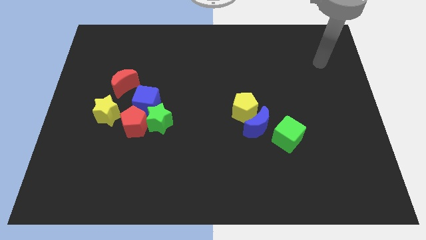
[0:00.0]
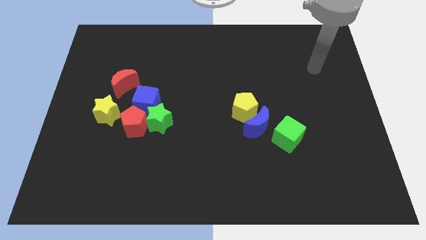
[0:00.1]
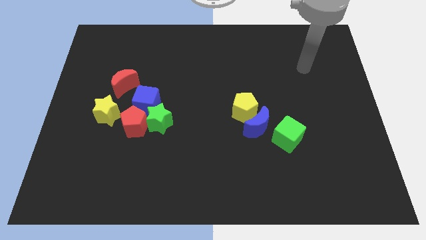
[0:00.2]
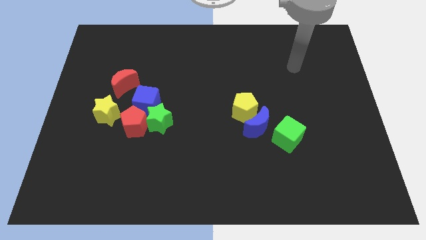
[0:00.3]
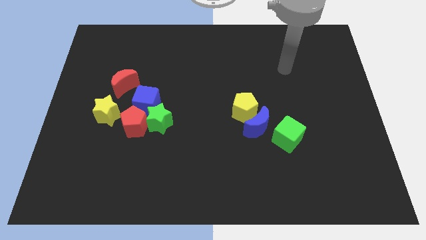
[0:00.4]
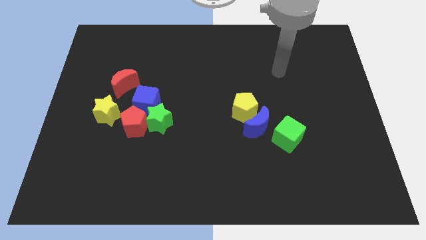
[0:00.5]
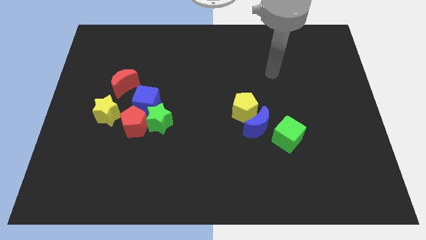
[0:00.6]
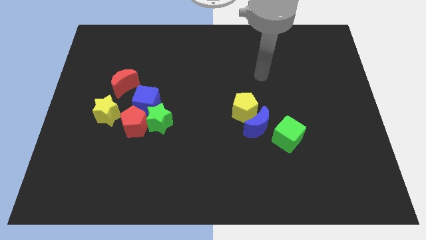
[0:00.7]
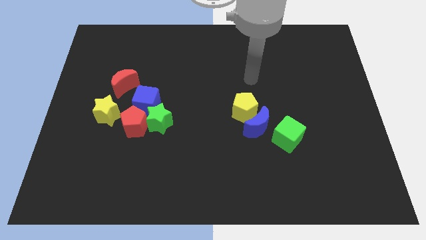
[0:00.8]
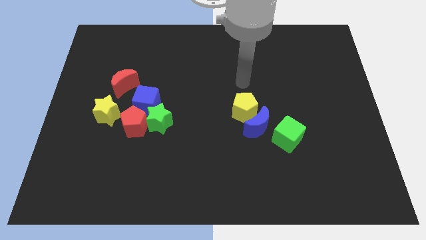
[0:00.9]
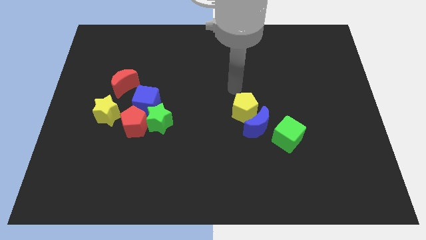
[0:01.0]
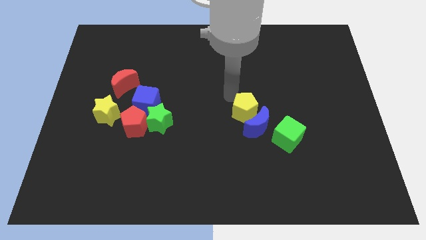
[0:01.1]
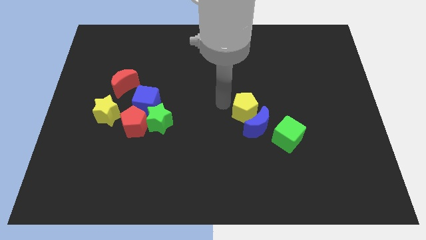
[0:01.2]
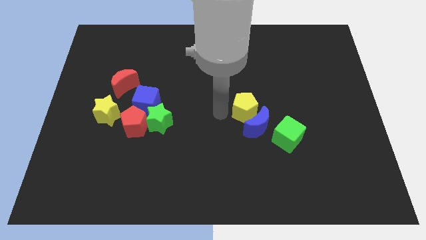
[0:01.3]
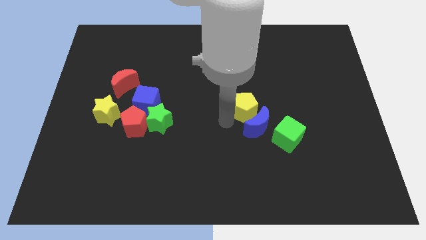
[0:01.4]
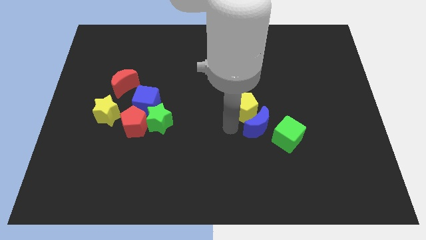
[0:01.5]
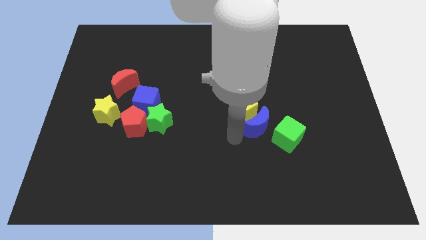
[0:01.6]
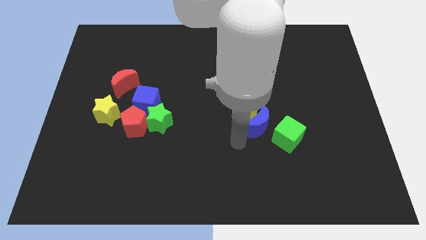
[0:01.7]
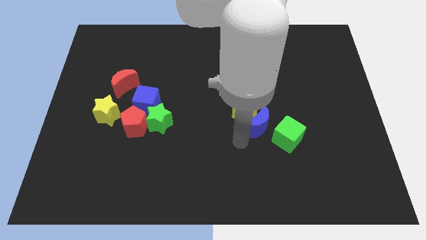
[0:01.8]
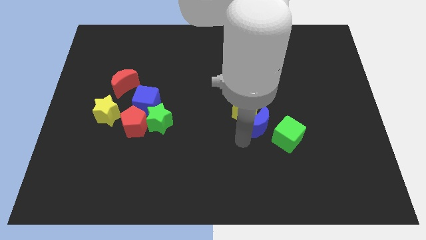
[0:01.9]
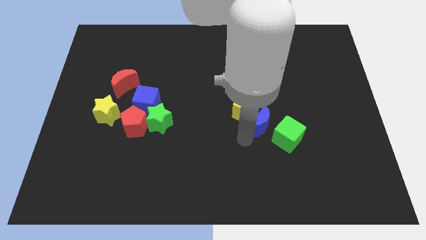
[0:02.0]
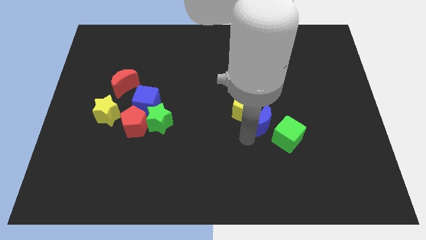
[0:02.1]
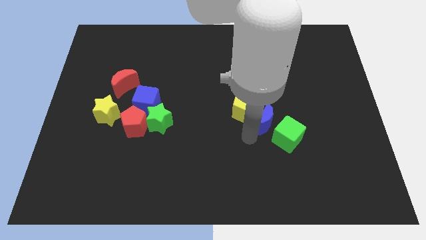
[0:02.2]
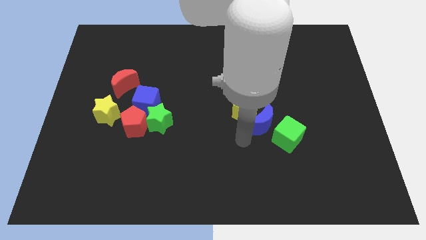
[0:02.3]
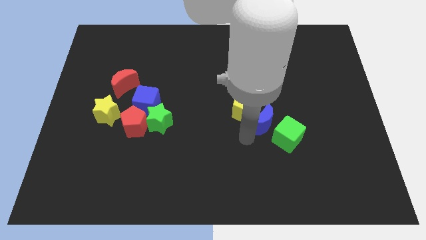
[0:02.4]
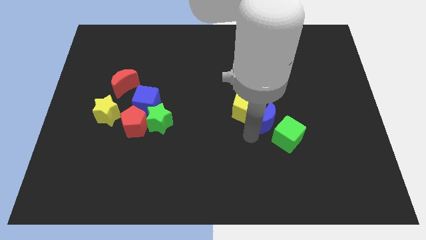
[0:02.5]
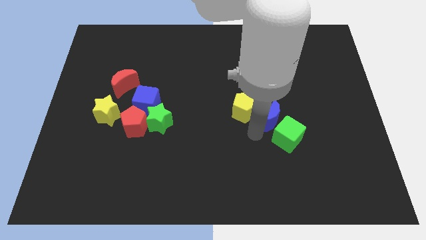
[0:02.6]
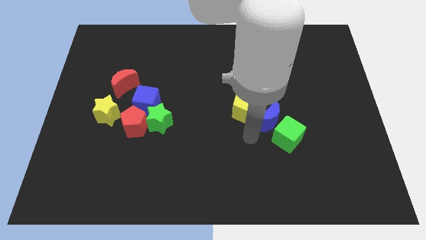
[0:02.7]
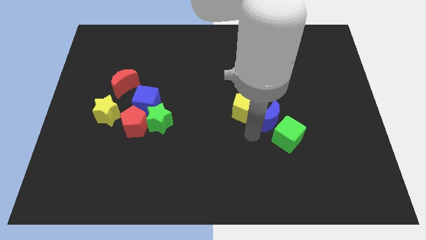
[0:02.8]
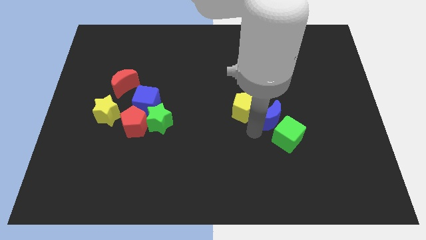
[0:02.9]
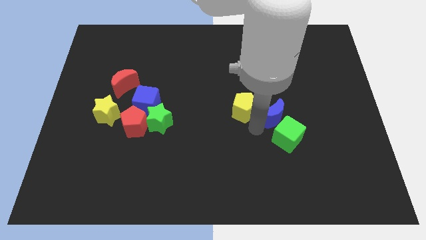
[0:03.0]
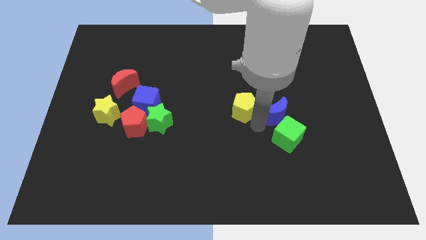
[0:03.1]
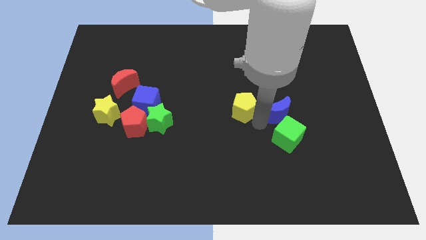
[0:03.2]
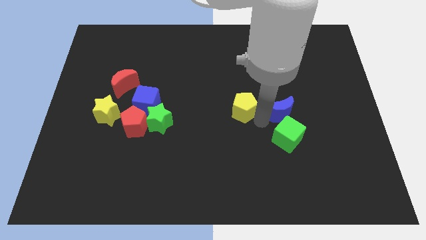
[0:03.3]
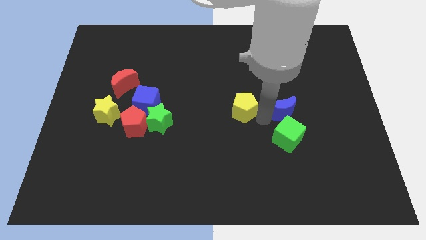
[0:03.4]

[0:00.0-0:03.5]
slightly slide the blue moon upwards and to the right diagonally

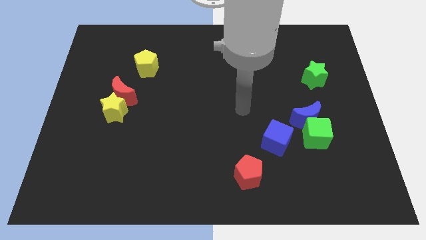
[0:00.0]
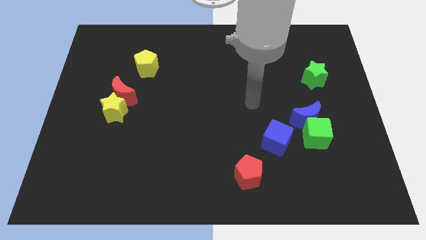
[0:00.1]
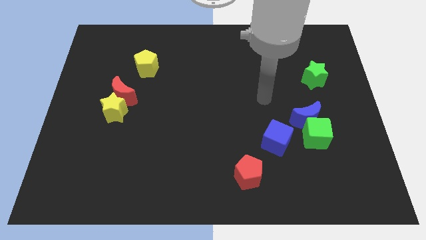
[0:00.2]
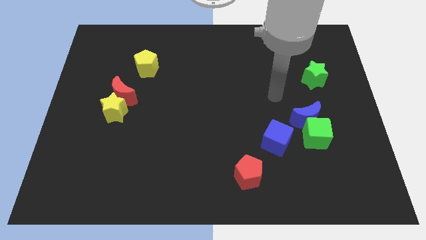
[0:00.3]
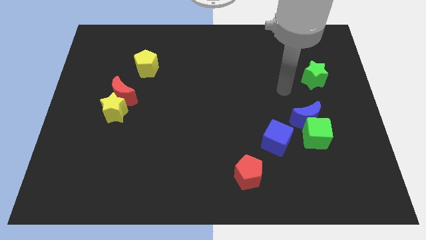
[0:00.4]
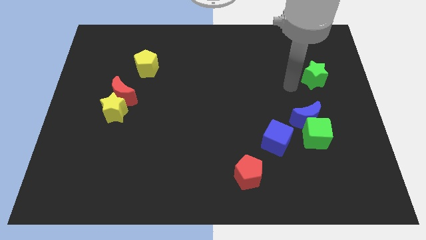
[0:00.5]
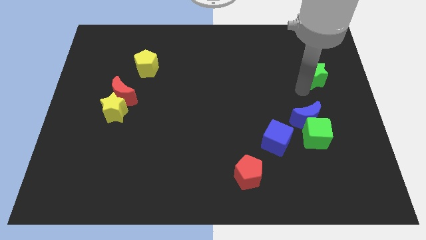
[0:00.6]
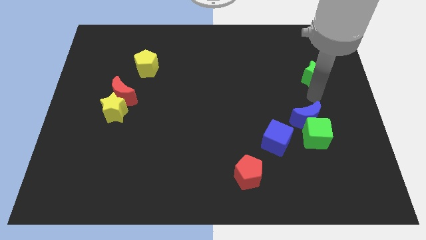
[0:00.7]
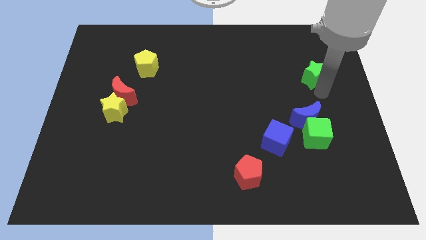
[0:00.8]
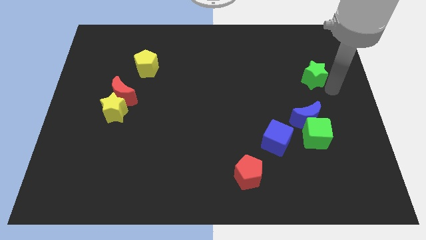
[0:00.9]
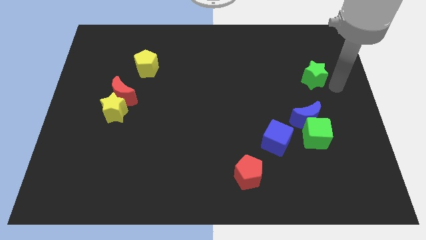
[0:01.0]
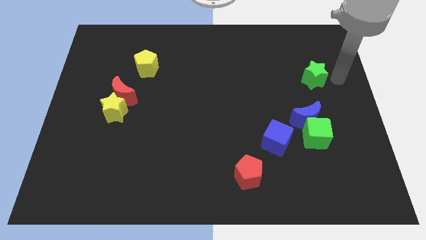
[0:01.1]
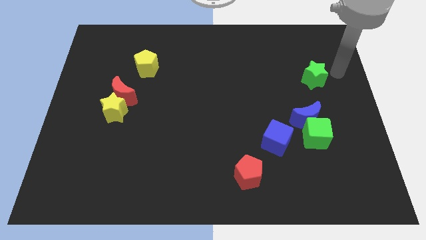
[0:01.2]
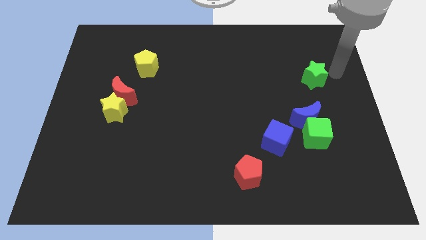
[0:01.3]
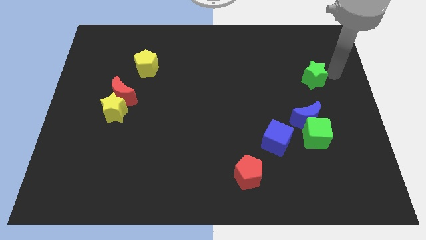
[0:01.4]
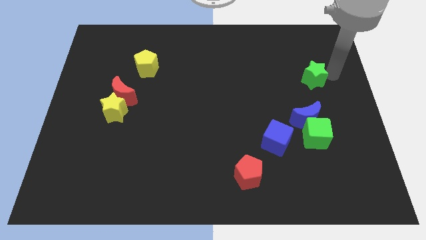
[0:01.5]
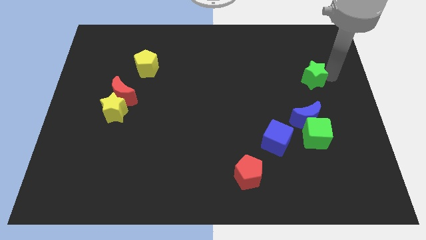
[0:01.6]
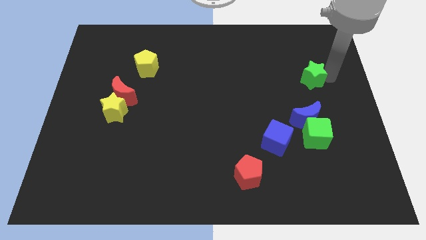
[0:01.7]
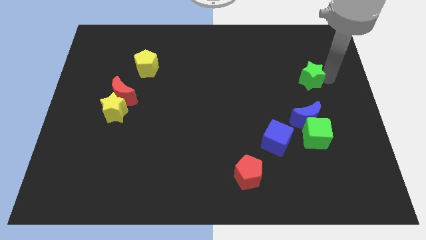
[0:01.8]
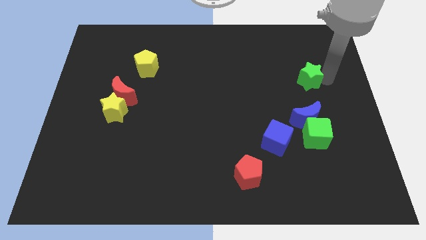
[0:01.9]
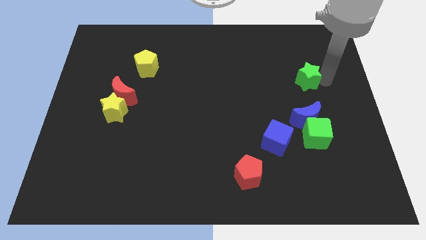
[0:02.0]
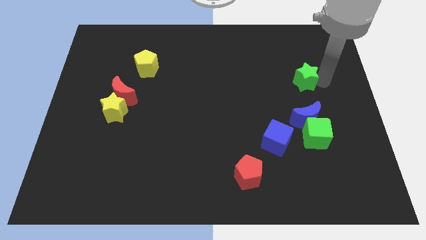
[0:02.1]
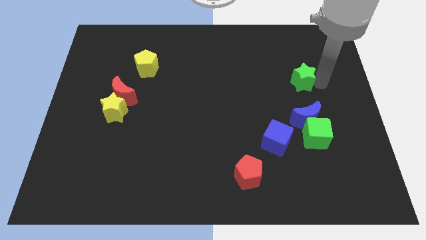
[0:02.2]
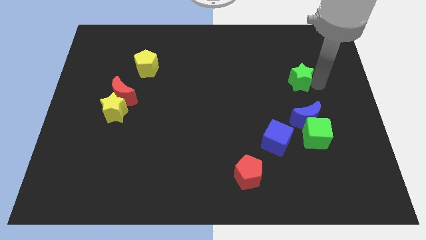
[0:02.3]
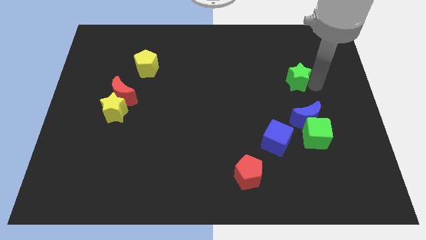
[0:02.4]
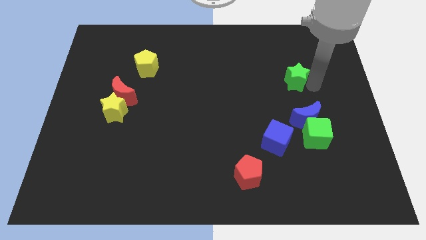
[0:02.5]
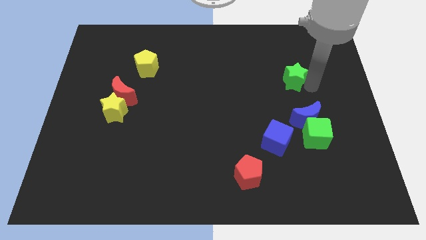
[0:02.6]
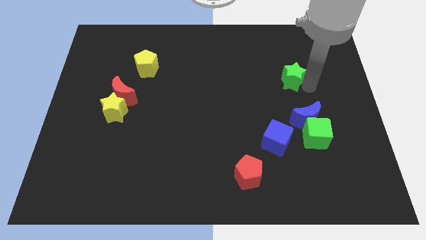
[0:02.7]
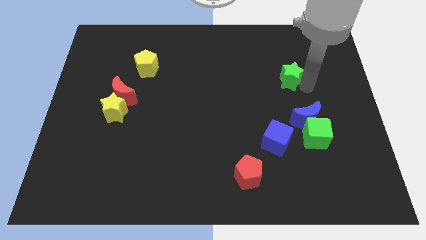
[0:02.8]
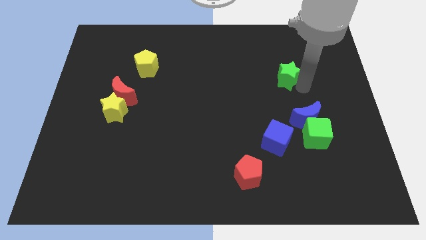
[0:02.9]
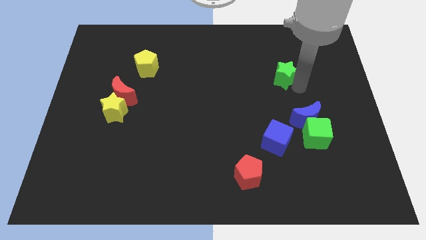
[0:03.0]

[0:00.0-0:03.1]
push the green star to the left a little

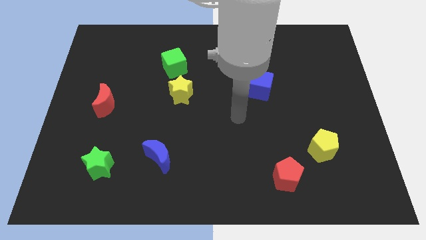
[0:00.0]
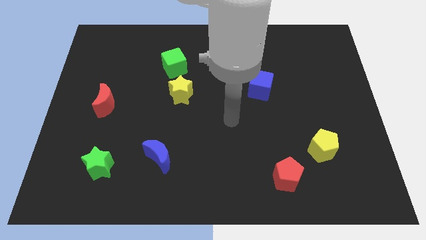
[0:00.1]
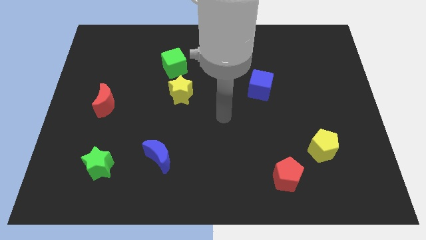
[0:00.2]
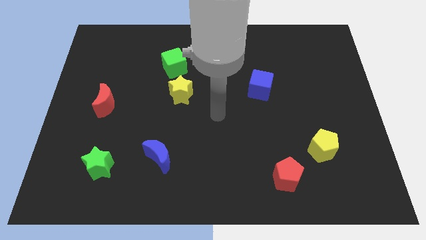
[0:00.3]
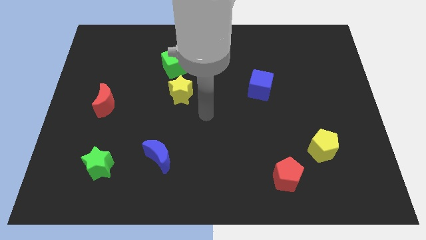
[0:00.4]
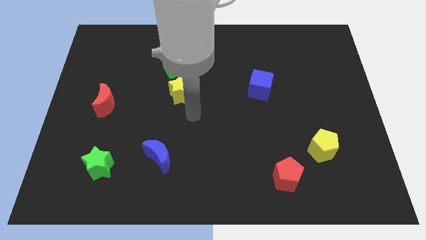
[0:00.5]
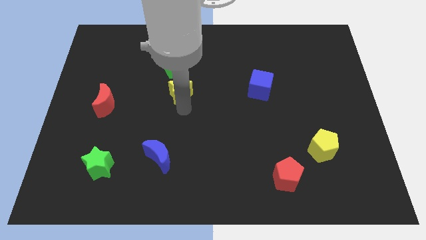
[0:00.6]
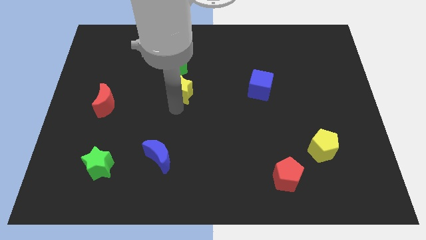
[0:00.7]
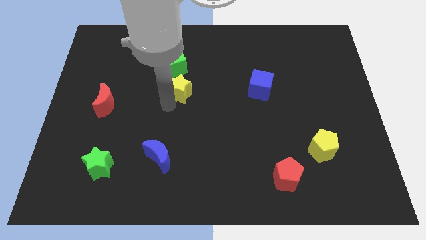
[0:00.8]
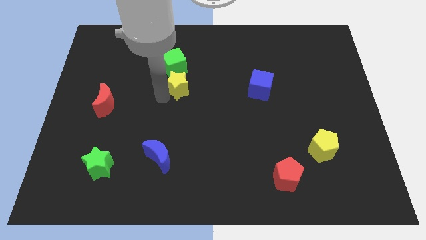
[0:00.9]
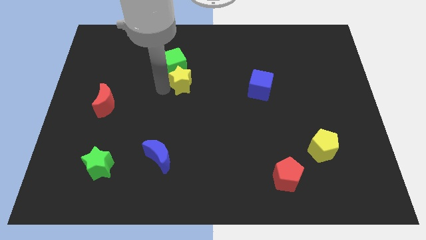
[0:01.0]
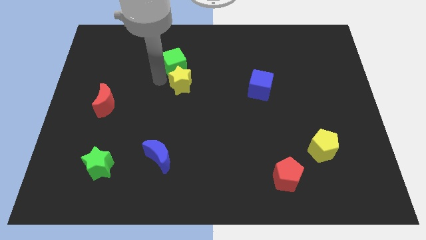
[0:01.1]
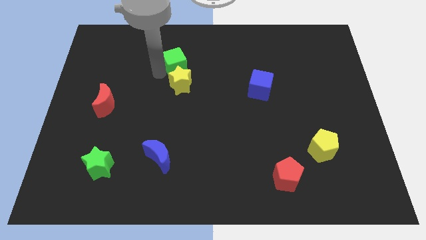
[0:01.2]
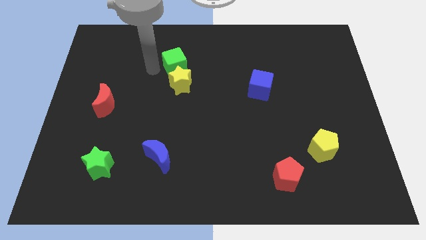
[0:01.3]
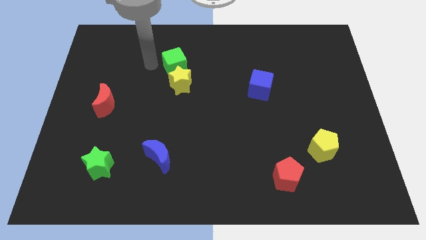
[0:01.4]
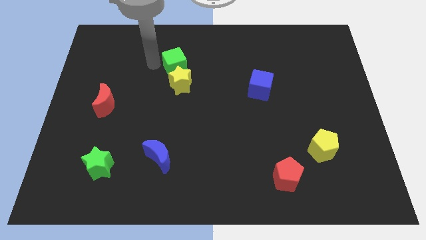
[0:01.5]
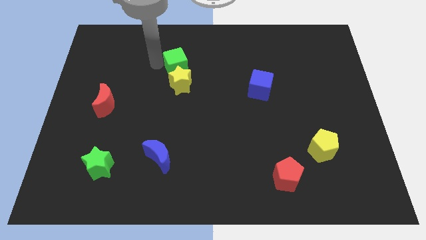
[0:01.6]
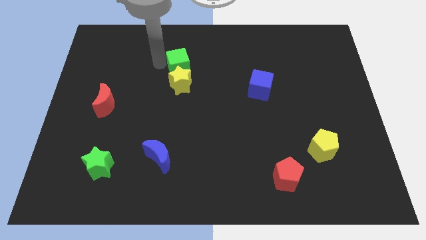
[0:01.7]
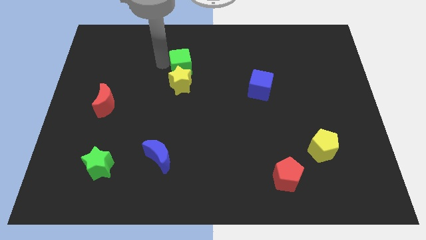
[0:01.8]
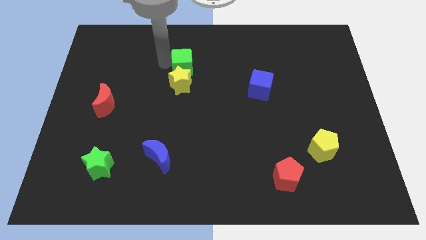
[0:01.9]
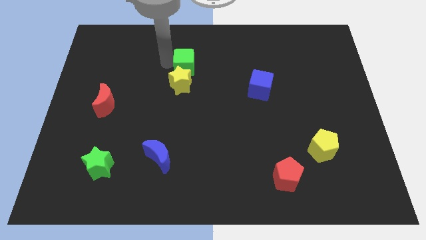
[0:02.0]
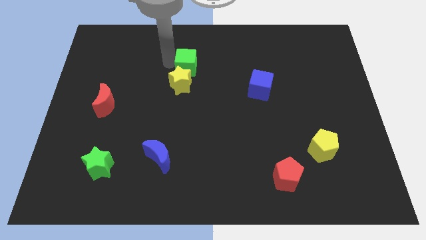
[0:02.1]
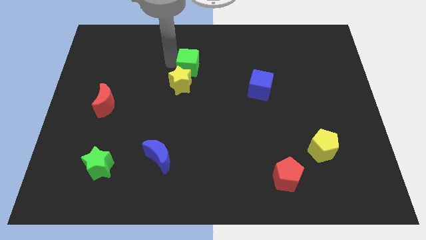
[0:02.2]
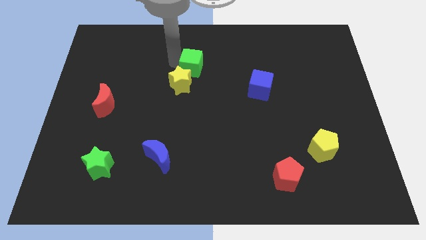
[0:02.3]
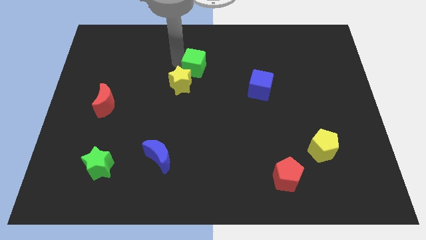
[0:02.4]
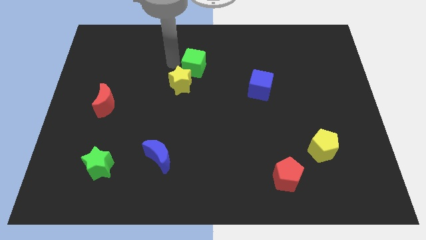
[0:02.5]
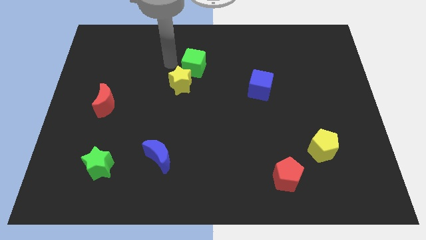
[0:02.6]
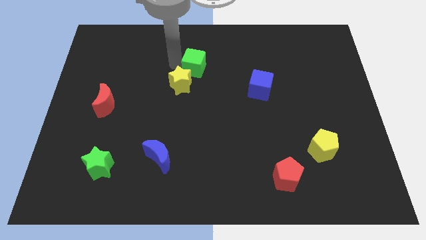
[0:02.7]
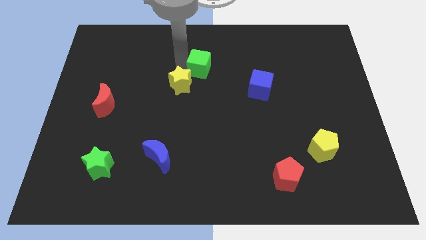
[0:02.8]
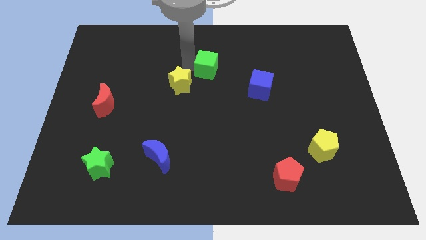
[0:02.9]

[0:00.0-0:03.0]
slightly push the green cube right
